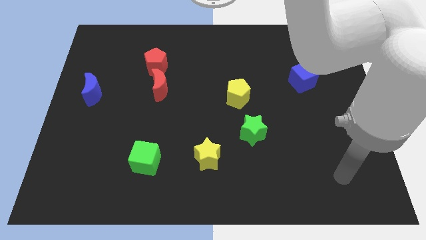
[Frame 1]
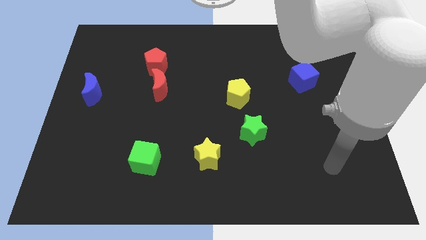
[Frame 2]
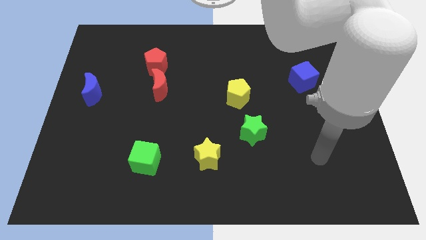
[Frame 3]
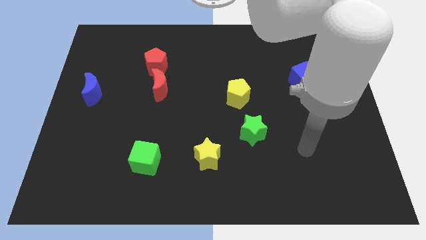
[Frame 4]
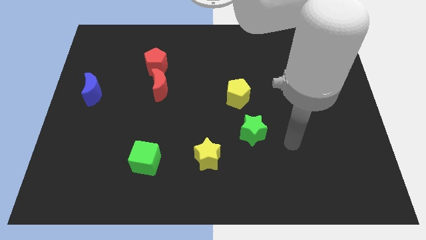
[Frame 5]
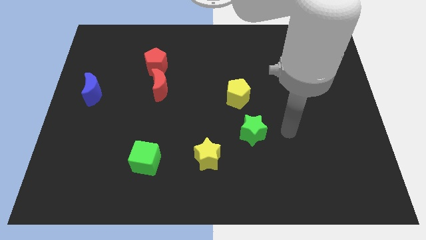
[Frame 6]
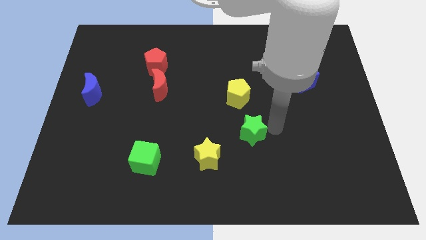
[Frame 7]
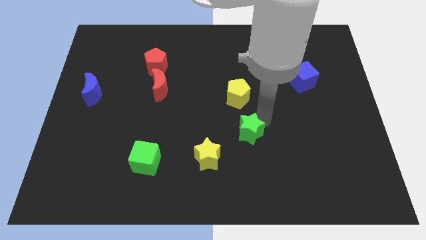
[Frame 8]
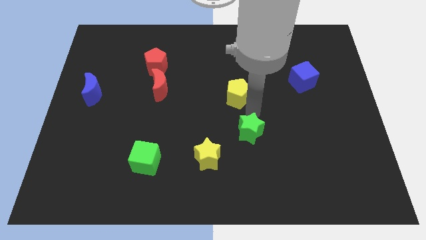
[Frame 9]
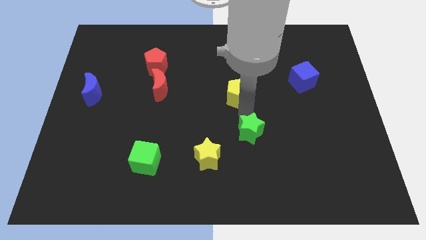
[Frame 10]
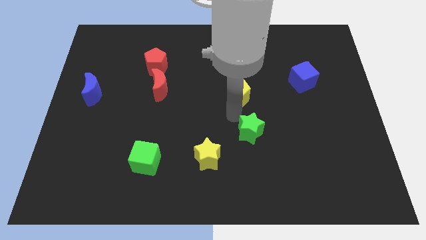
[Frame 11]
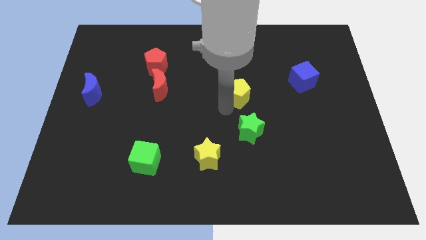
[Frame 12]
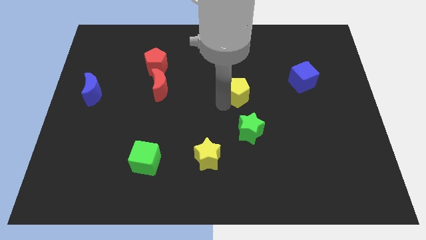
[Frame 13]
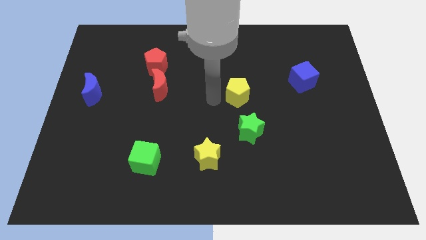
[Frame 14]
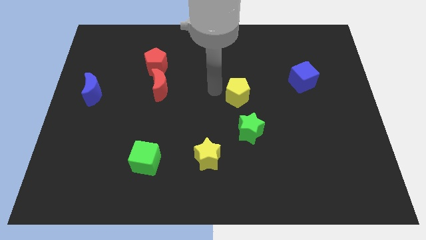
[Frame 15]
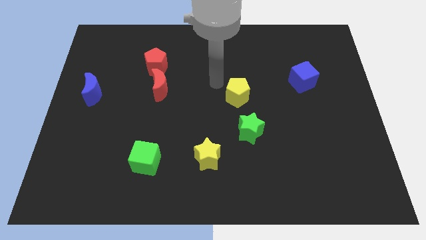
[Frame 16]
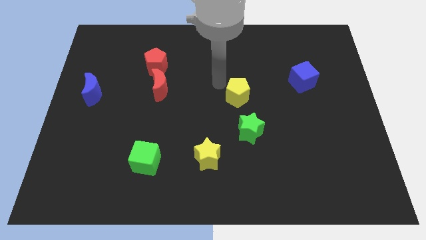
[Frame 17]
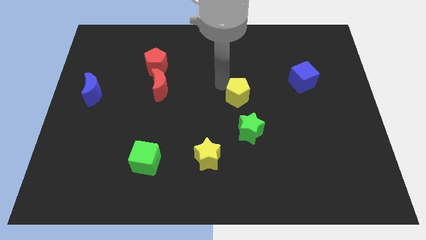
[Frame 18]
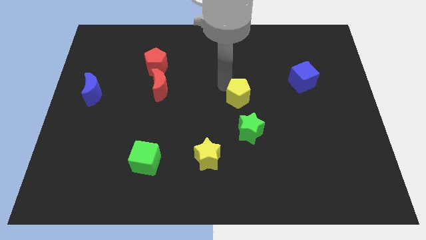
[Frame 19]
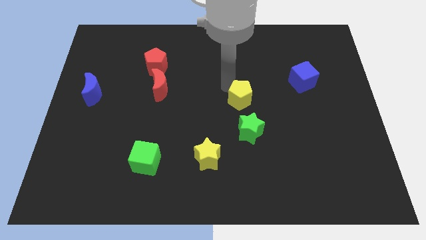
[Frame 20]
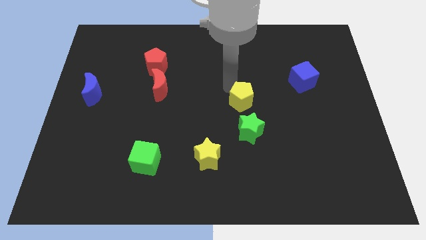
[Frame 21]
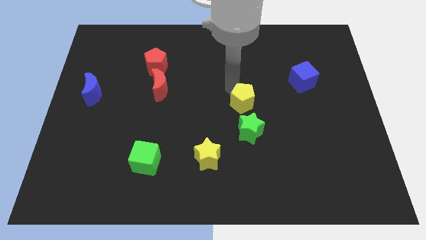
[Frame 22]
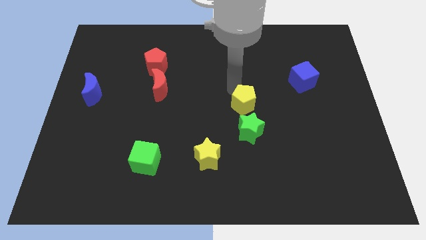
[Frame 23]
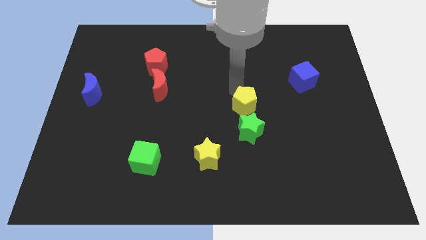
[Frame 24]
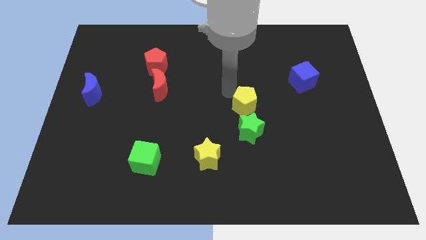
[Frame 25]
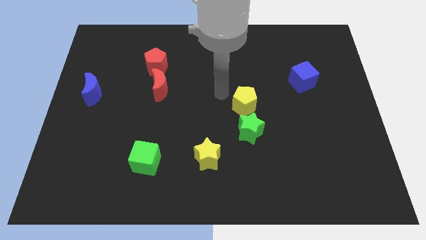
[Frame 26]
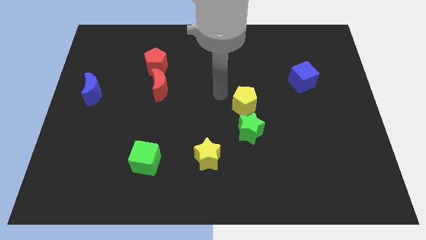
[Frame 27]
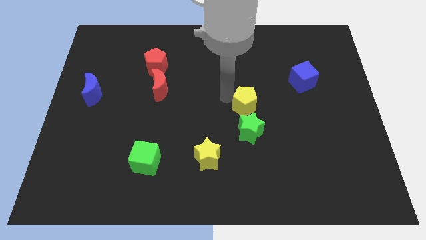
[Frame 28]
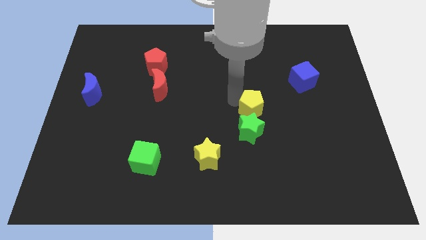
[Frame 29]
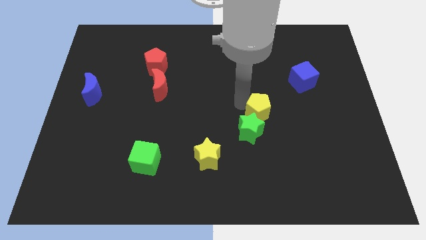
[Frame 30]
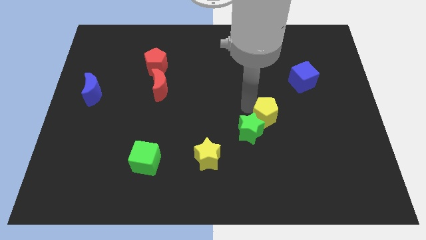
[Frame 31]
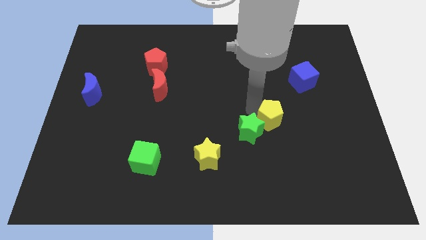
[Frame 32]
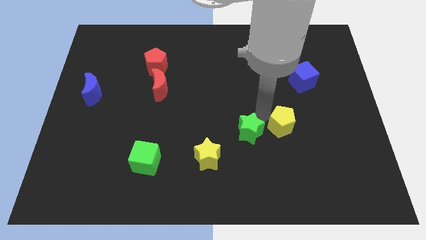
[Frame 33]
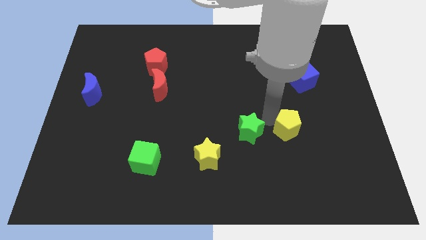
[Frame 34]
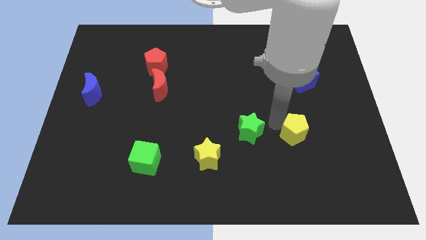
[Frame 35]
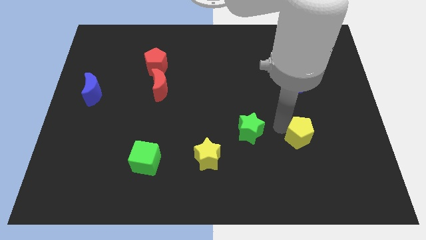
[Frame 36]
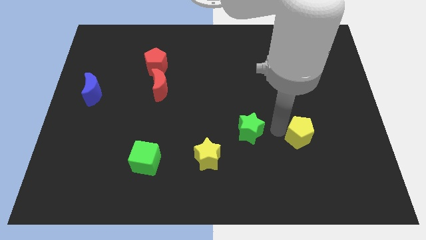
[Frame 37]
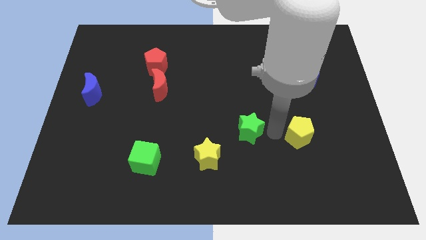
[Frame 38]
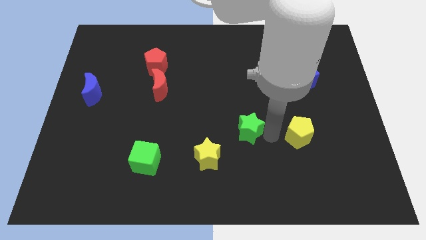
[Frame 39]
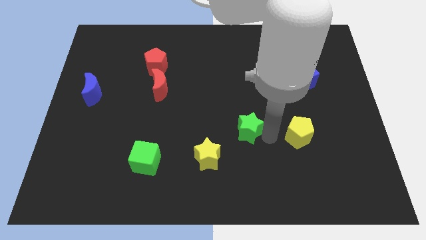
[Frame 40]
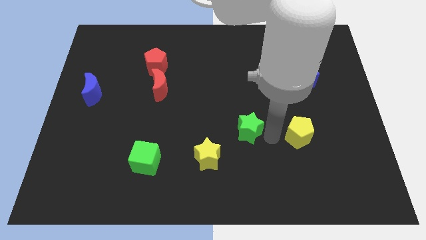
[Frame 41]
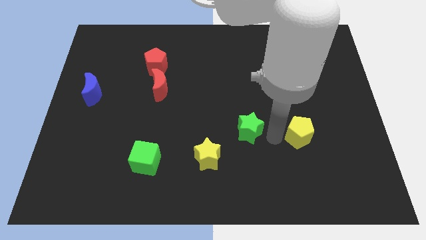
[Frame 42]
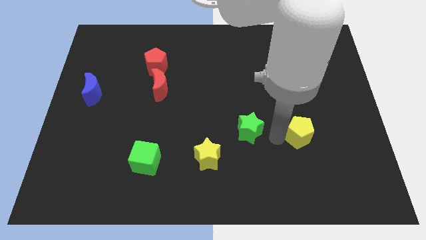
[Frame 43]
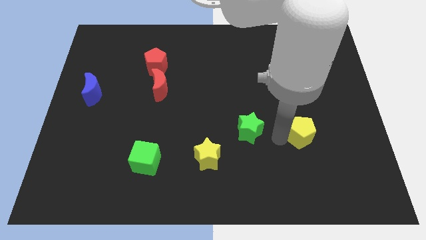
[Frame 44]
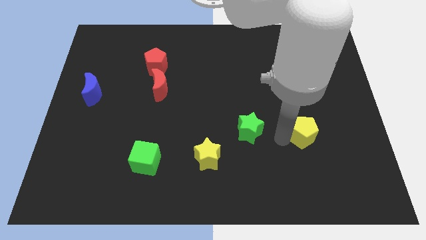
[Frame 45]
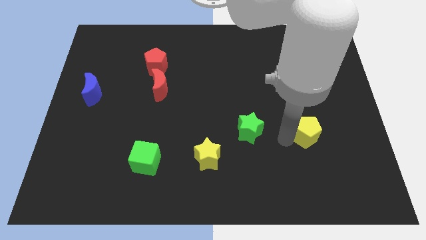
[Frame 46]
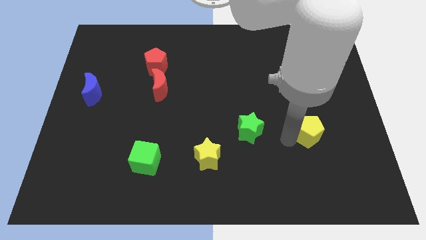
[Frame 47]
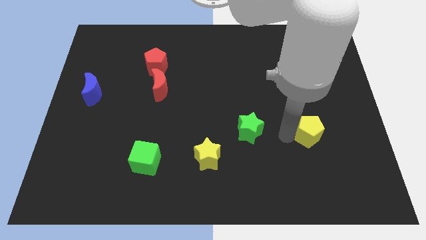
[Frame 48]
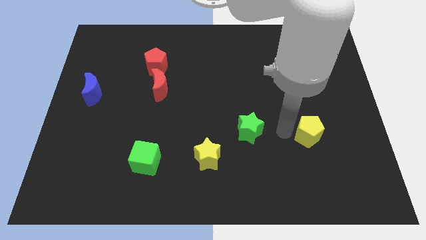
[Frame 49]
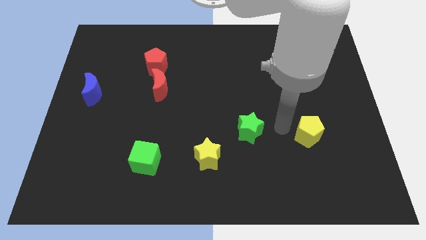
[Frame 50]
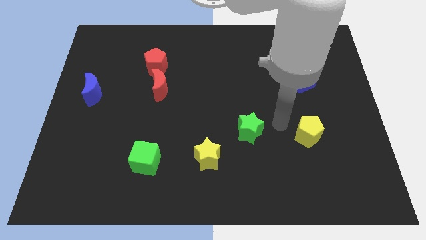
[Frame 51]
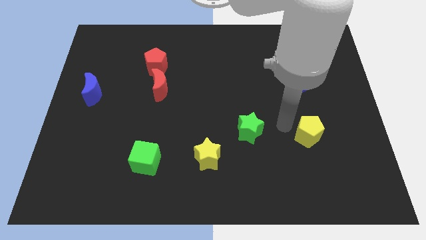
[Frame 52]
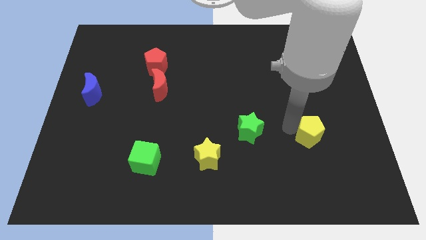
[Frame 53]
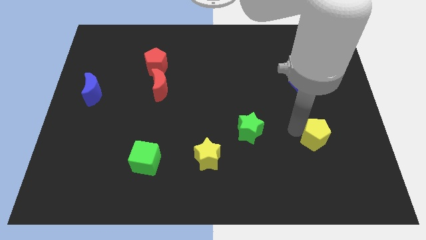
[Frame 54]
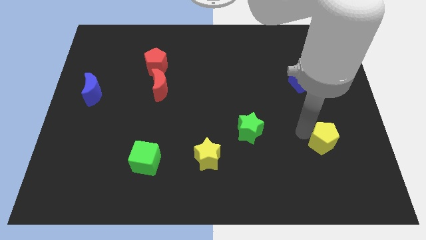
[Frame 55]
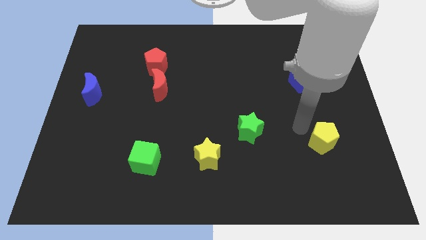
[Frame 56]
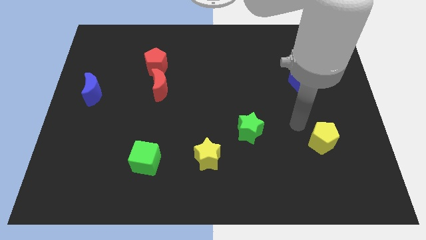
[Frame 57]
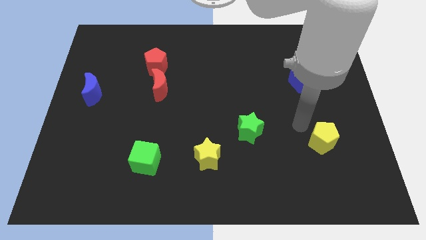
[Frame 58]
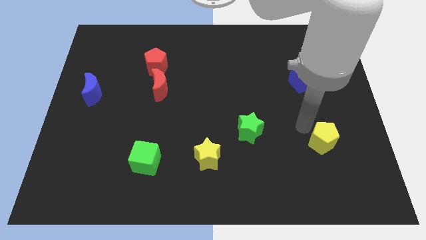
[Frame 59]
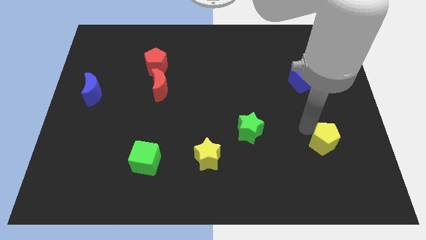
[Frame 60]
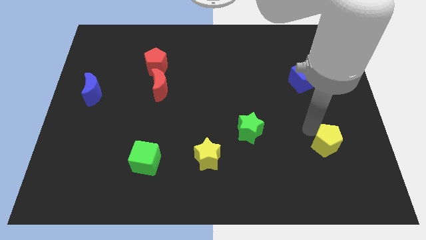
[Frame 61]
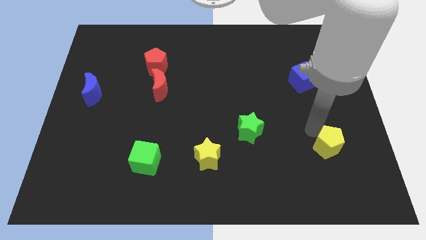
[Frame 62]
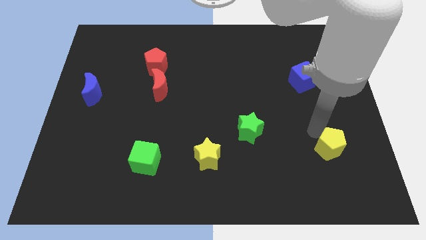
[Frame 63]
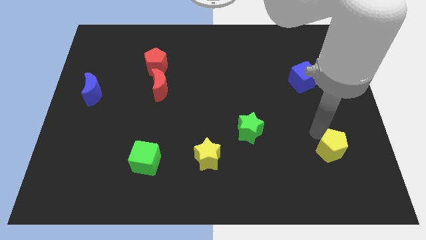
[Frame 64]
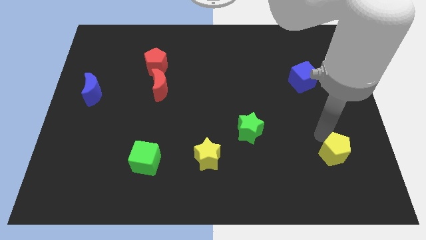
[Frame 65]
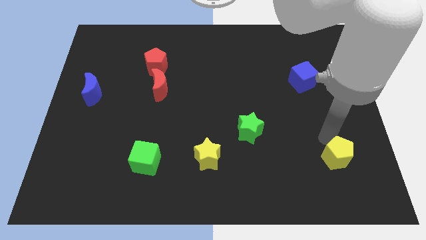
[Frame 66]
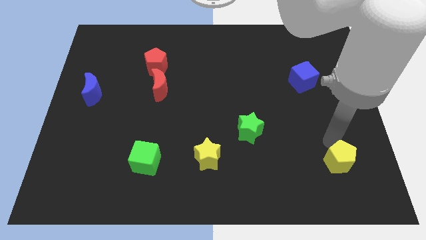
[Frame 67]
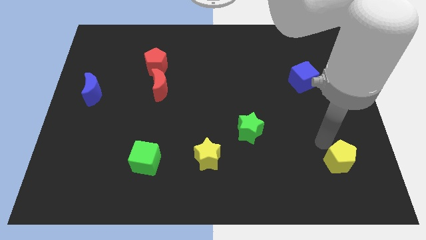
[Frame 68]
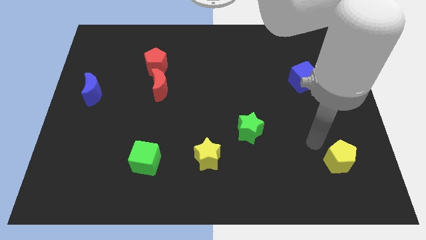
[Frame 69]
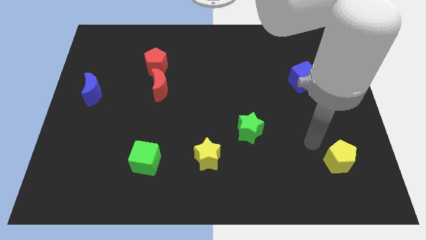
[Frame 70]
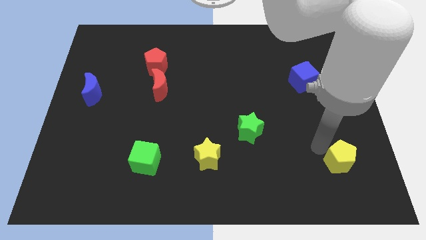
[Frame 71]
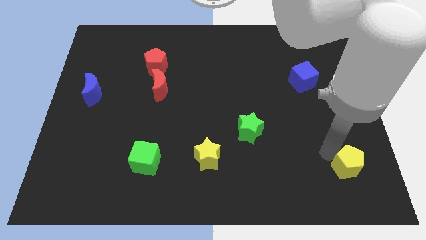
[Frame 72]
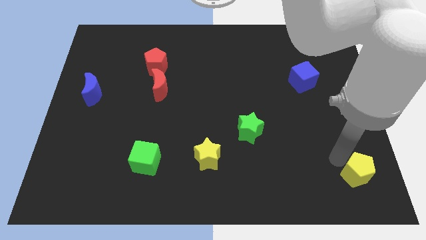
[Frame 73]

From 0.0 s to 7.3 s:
put the yellow pentagon to the lower right corner

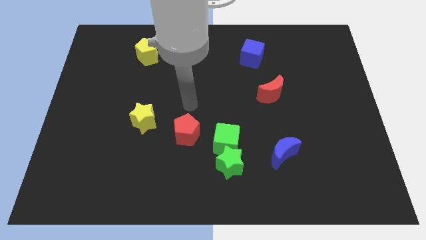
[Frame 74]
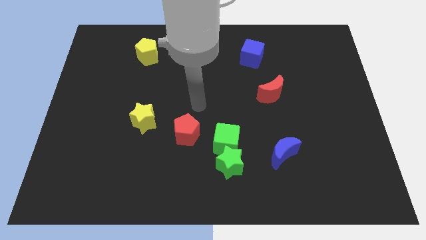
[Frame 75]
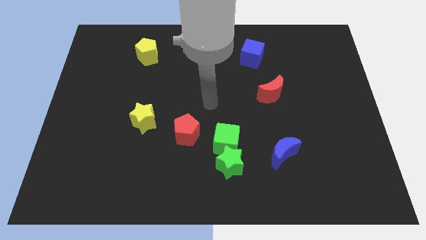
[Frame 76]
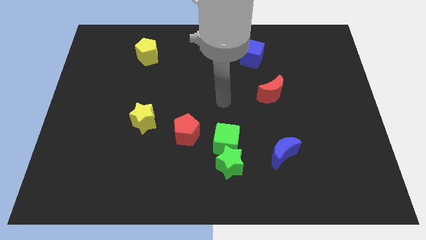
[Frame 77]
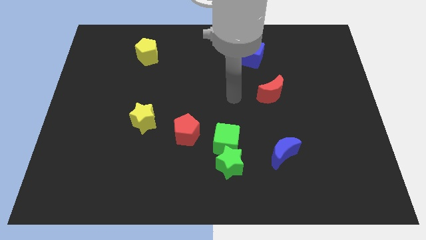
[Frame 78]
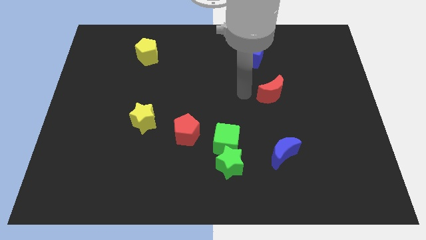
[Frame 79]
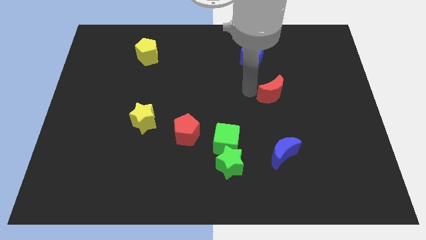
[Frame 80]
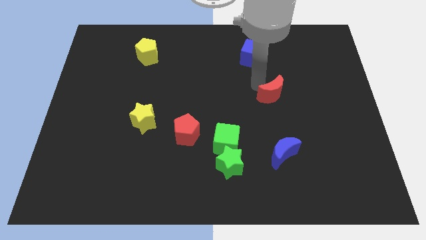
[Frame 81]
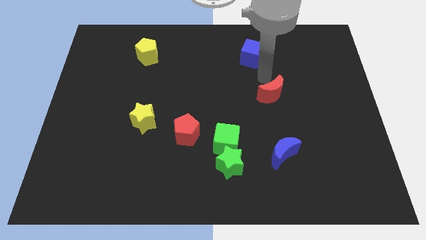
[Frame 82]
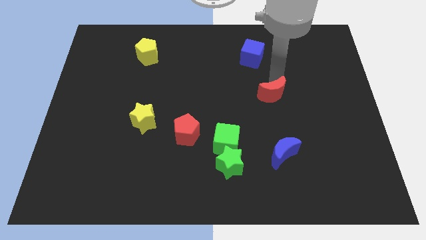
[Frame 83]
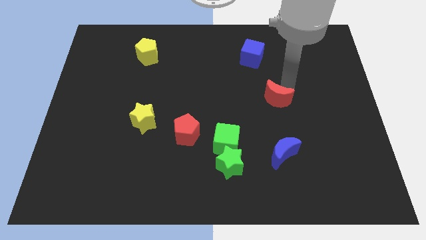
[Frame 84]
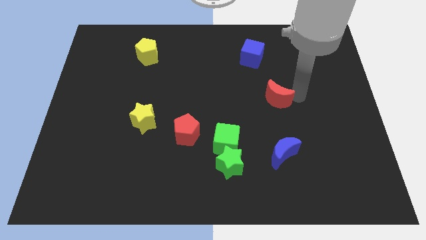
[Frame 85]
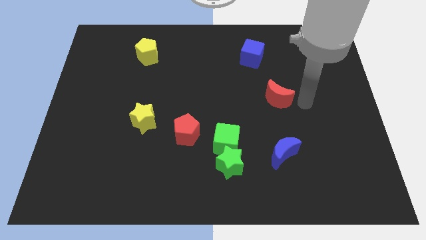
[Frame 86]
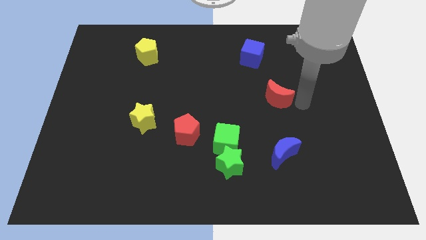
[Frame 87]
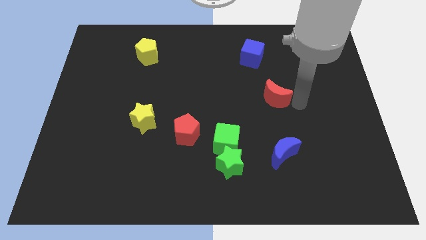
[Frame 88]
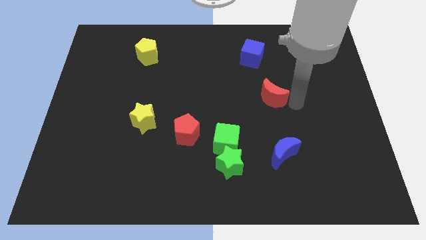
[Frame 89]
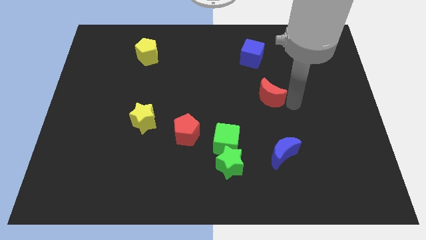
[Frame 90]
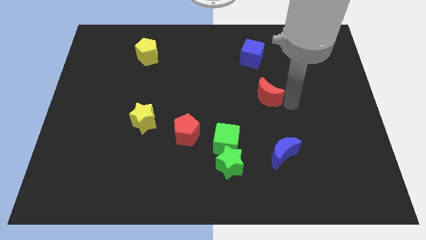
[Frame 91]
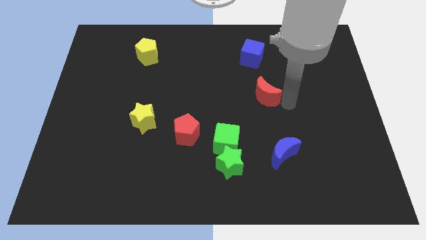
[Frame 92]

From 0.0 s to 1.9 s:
slide the red moon to the center of the board
